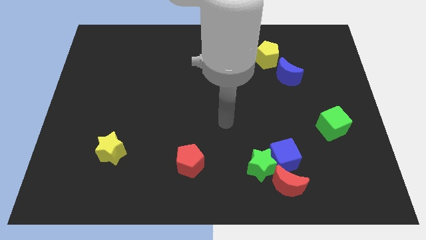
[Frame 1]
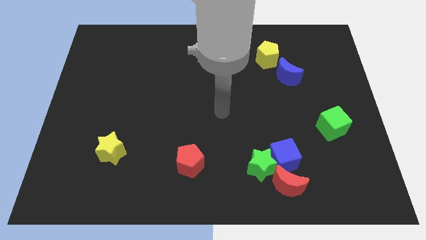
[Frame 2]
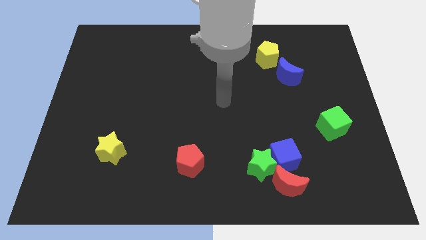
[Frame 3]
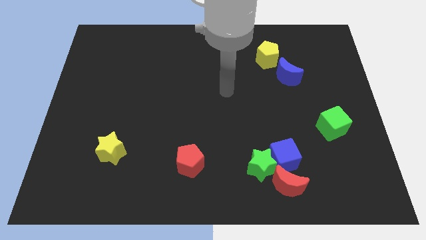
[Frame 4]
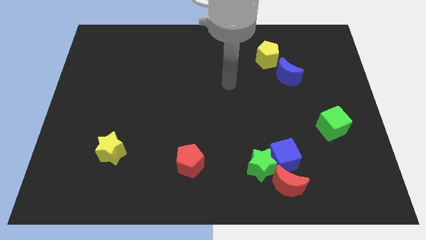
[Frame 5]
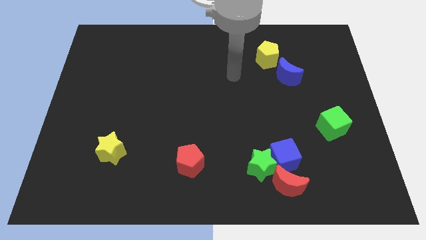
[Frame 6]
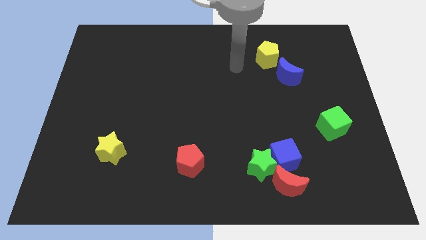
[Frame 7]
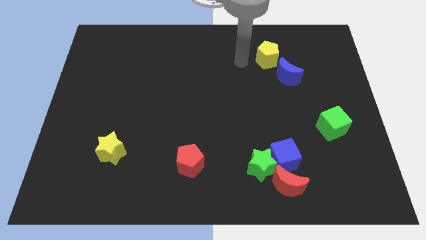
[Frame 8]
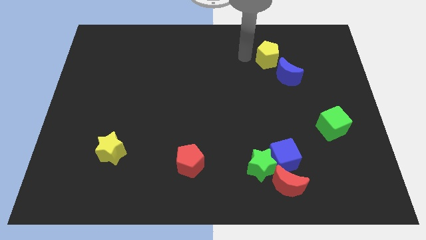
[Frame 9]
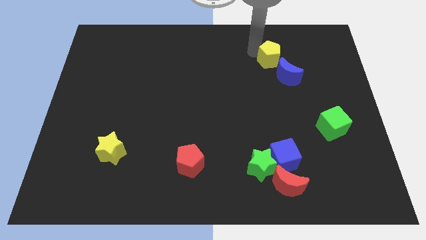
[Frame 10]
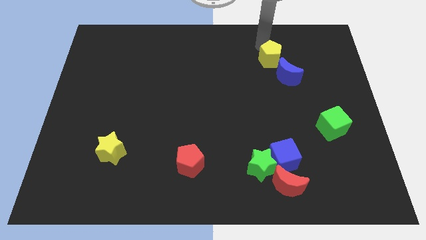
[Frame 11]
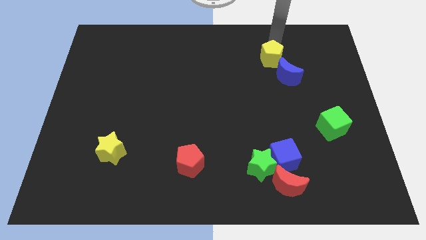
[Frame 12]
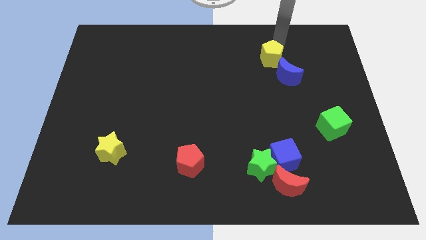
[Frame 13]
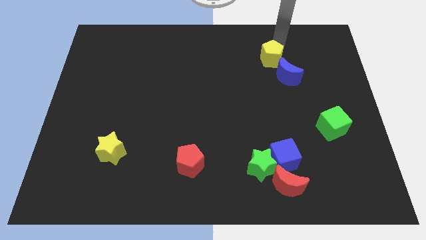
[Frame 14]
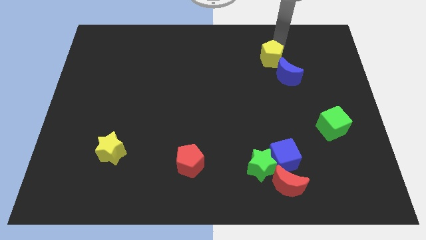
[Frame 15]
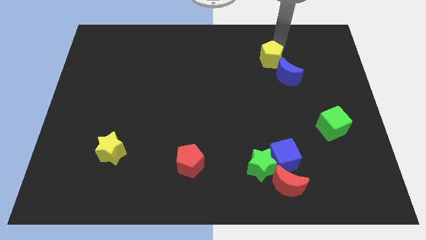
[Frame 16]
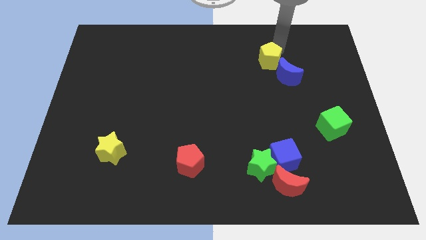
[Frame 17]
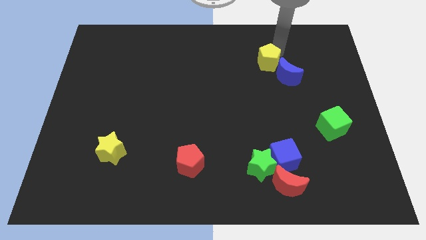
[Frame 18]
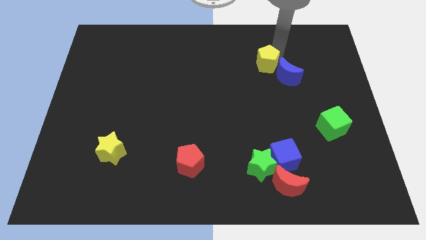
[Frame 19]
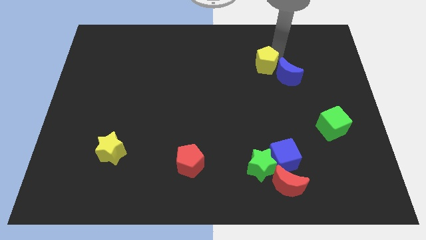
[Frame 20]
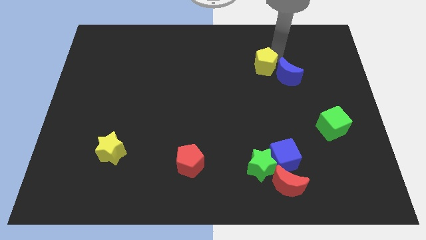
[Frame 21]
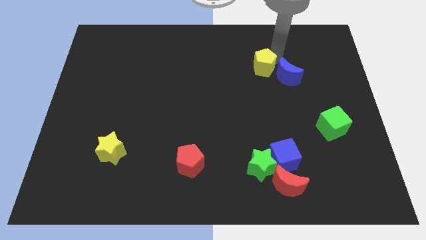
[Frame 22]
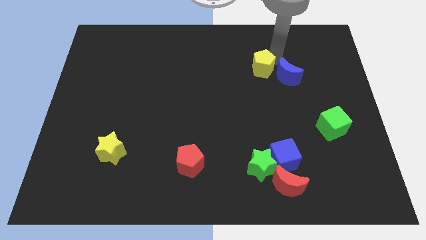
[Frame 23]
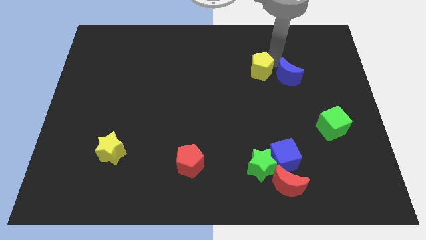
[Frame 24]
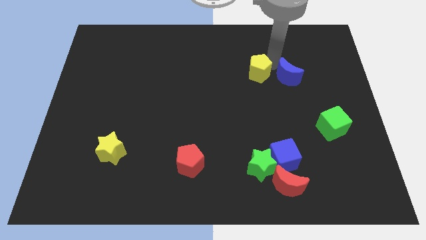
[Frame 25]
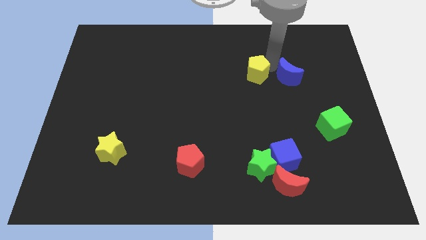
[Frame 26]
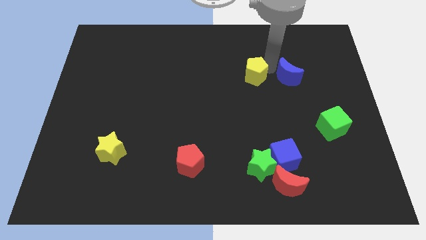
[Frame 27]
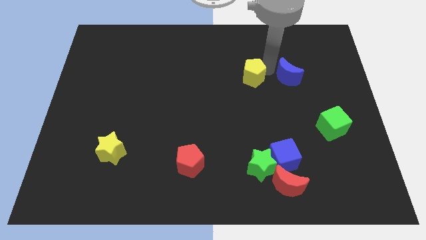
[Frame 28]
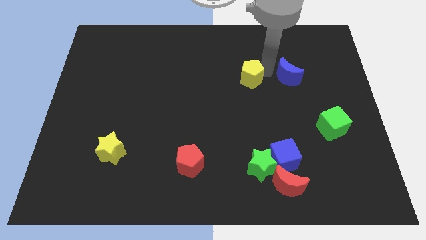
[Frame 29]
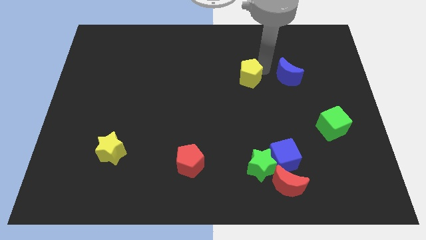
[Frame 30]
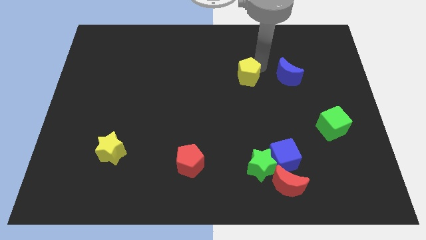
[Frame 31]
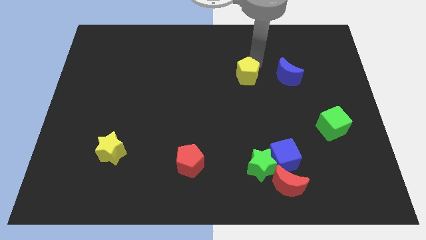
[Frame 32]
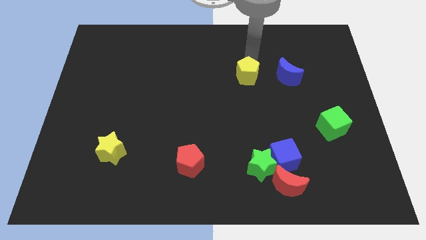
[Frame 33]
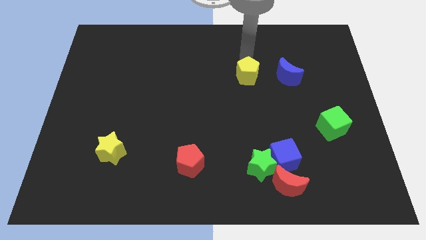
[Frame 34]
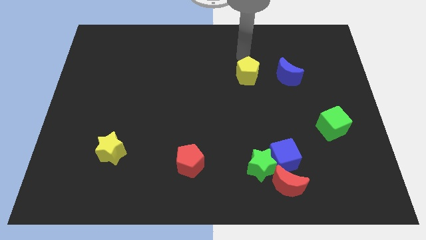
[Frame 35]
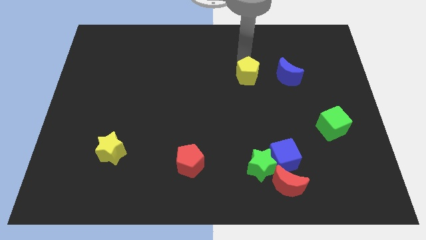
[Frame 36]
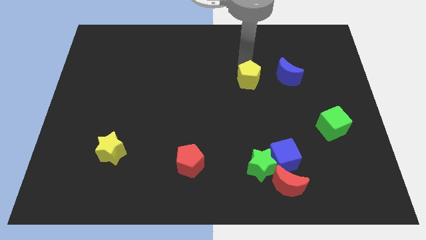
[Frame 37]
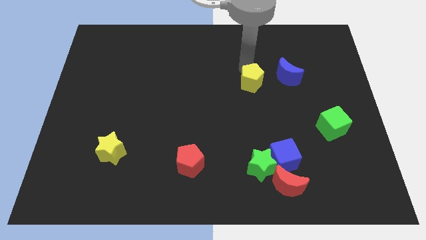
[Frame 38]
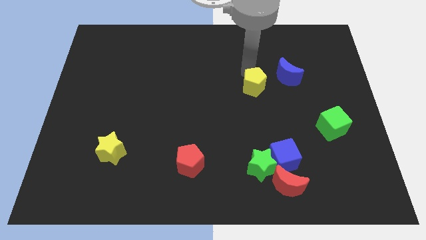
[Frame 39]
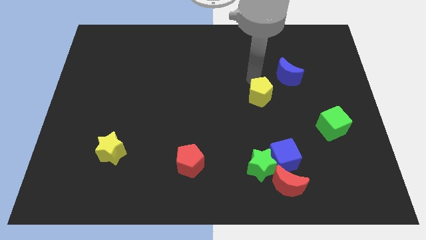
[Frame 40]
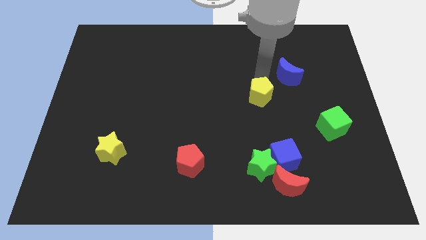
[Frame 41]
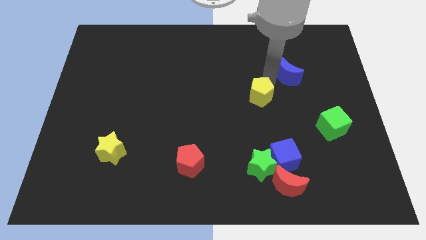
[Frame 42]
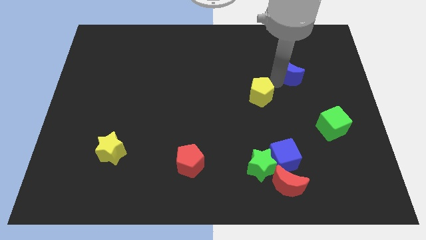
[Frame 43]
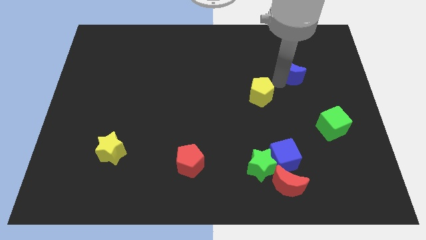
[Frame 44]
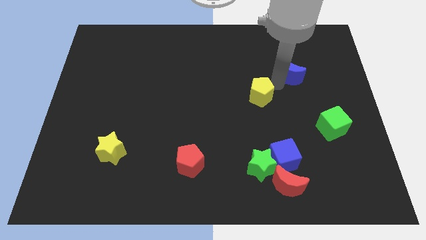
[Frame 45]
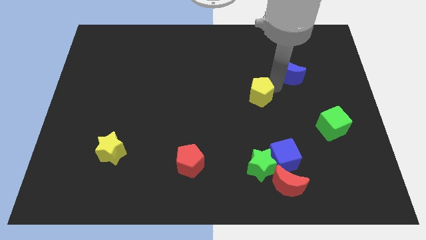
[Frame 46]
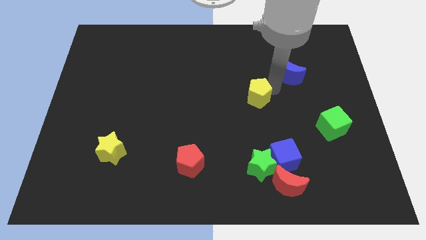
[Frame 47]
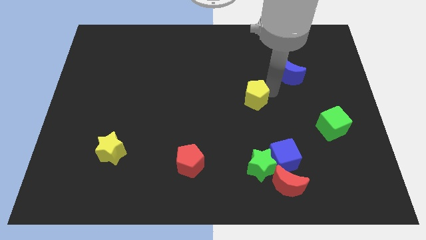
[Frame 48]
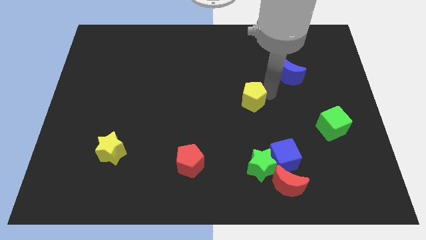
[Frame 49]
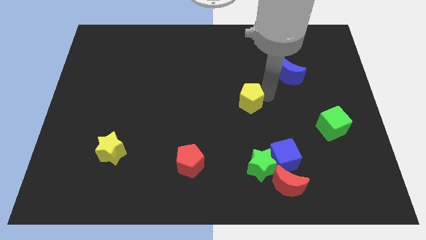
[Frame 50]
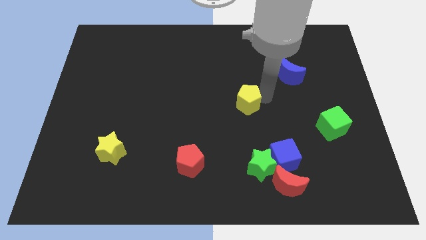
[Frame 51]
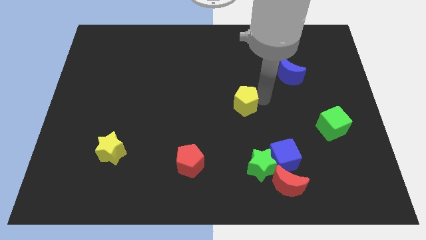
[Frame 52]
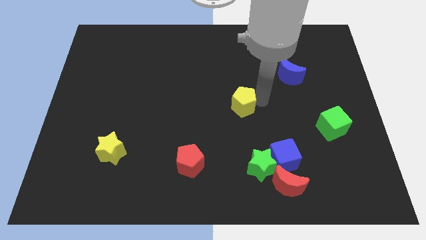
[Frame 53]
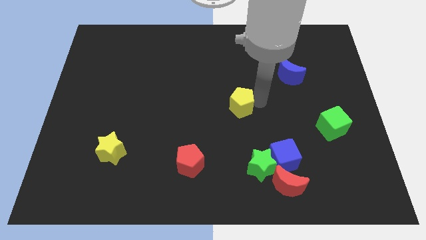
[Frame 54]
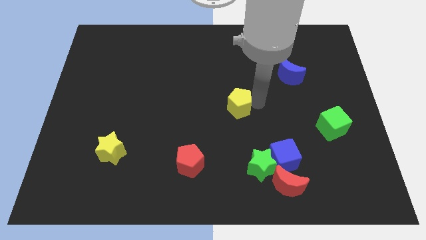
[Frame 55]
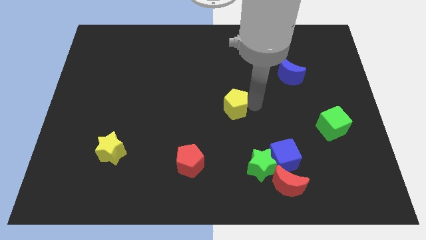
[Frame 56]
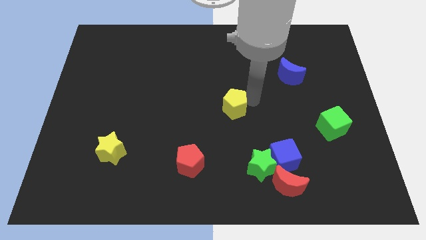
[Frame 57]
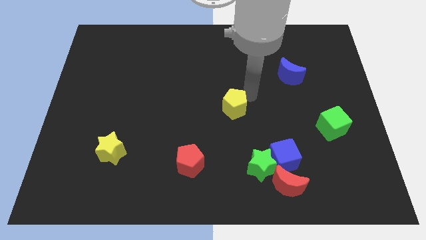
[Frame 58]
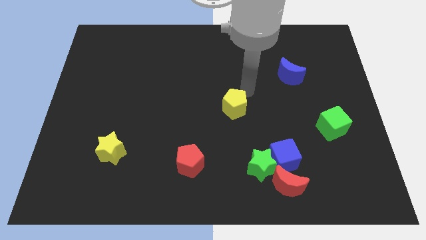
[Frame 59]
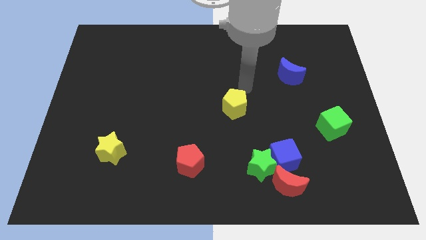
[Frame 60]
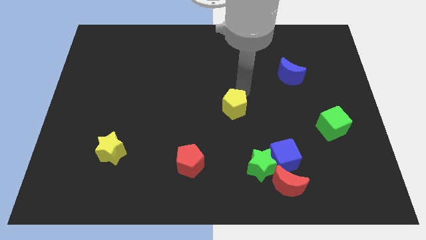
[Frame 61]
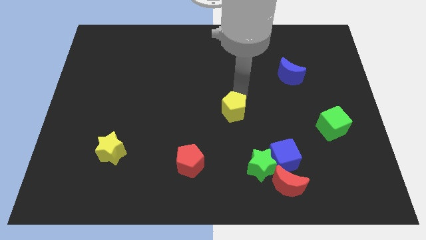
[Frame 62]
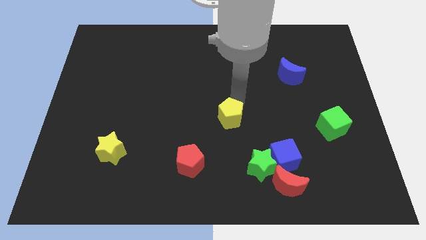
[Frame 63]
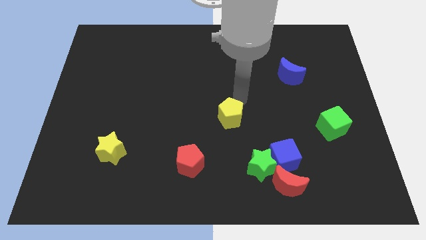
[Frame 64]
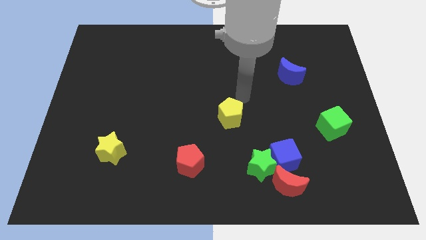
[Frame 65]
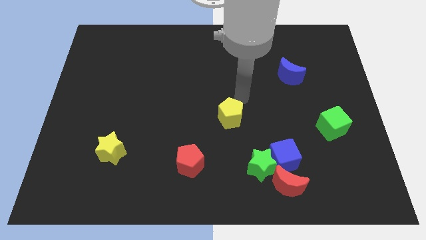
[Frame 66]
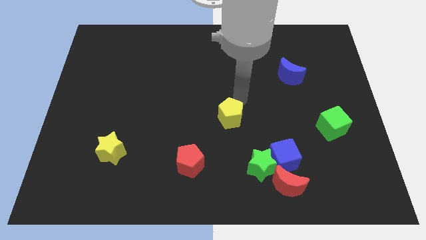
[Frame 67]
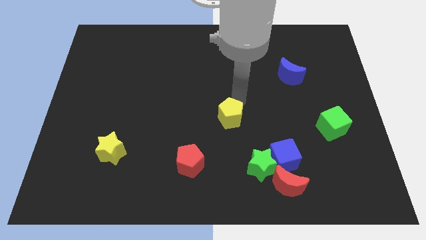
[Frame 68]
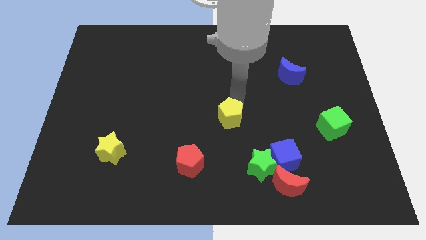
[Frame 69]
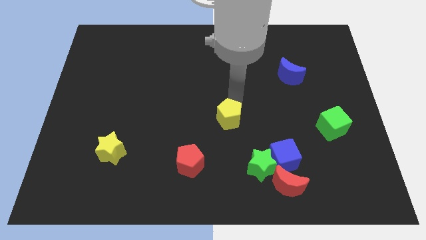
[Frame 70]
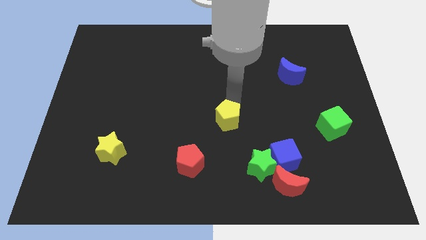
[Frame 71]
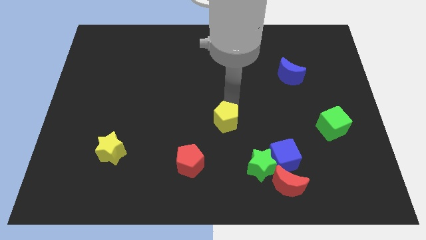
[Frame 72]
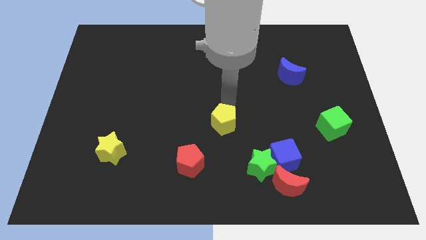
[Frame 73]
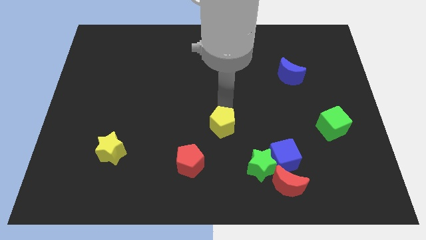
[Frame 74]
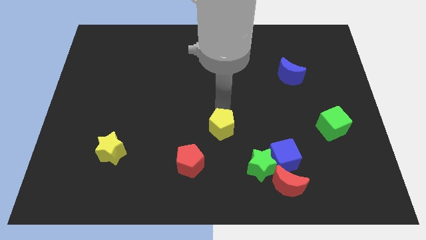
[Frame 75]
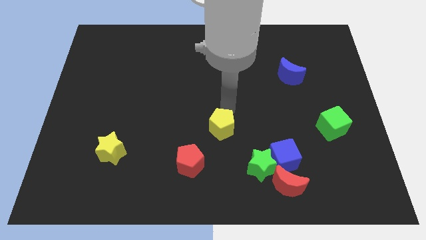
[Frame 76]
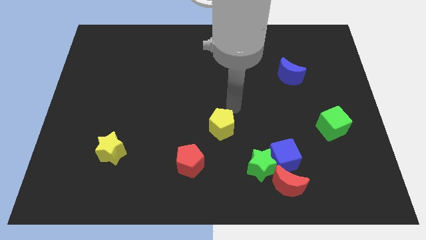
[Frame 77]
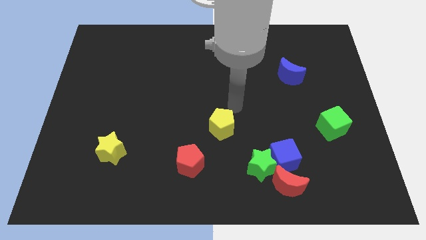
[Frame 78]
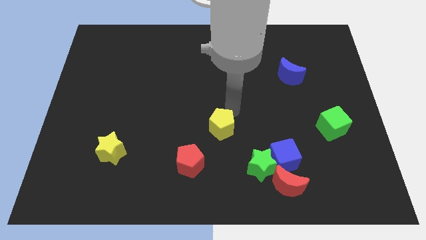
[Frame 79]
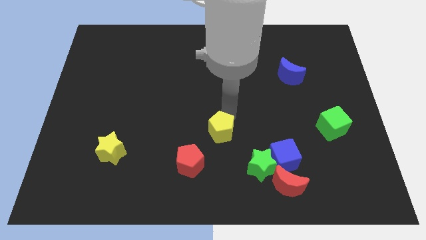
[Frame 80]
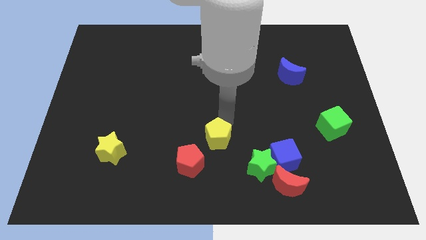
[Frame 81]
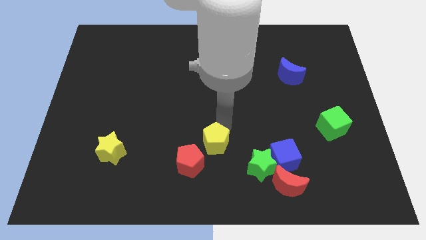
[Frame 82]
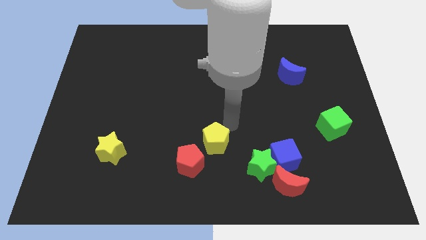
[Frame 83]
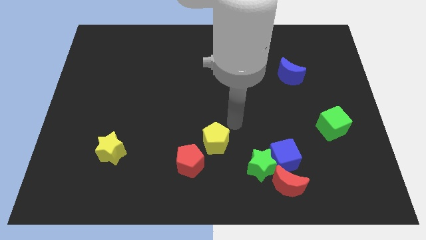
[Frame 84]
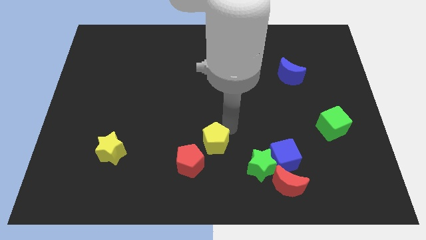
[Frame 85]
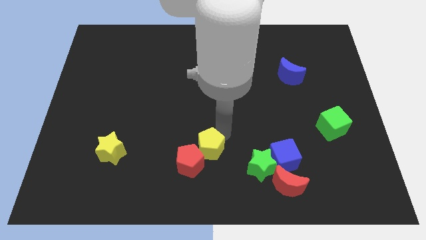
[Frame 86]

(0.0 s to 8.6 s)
move the yellow pentagon towards the red pentagon
